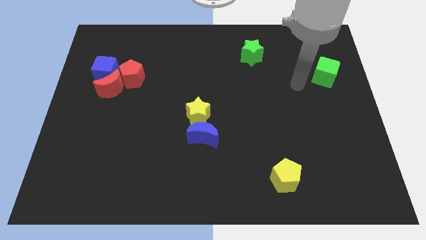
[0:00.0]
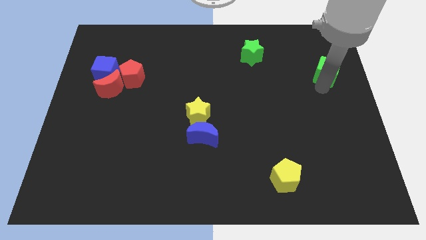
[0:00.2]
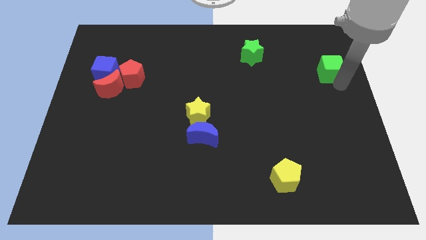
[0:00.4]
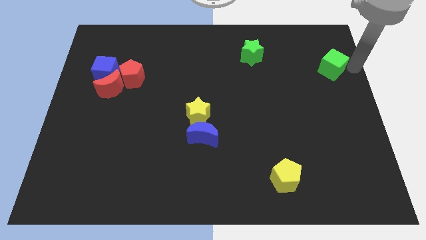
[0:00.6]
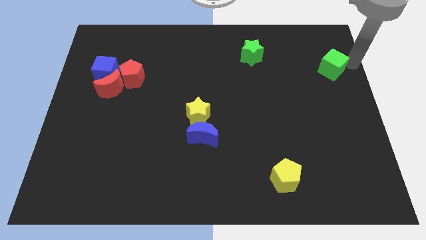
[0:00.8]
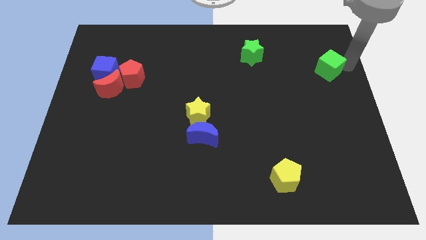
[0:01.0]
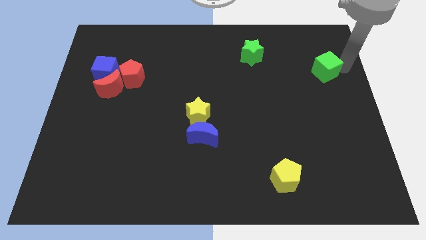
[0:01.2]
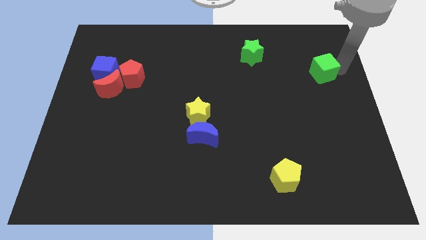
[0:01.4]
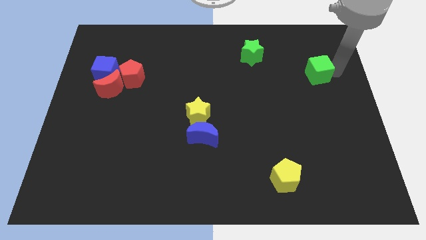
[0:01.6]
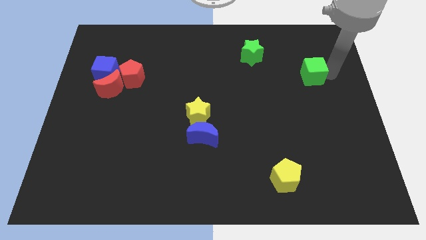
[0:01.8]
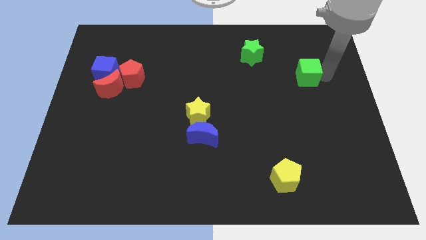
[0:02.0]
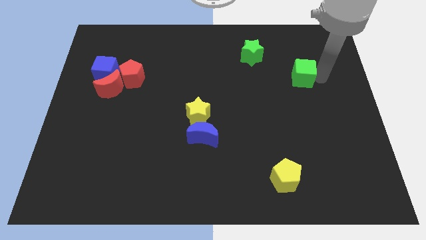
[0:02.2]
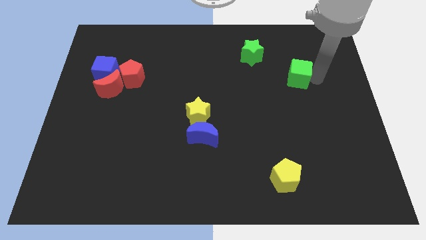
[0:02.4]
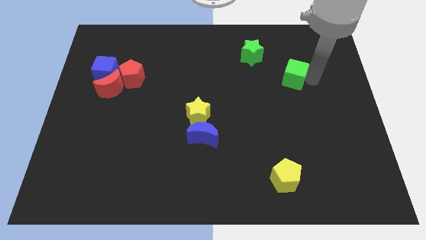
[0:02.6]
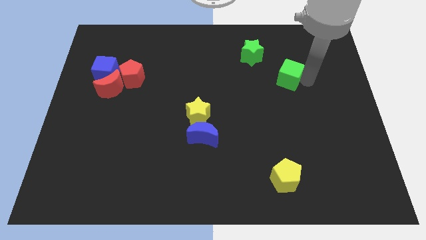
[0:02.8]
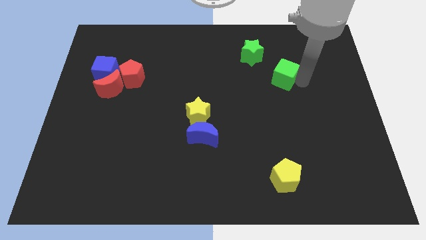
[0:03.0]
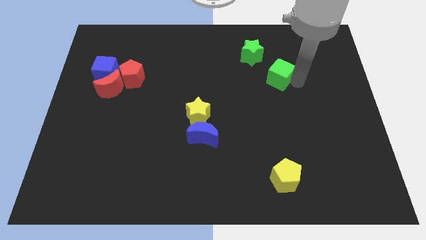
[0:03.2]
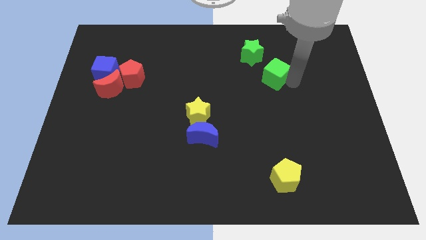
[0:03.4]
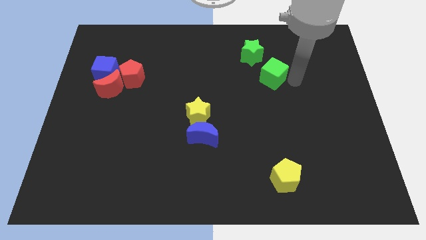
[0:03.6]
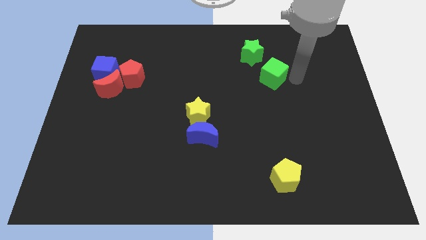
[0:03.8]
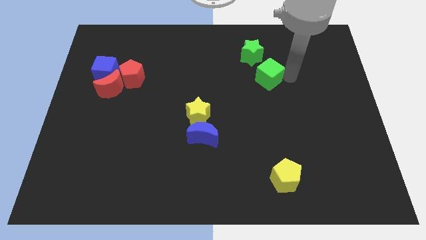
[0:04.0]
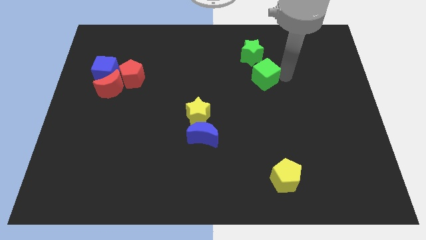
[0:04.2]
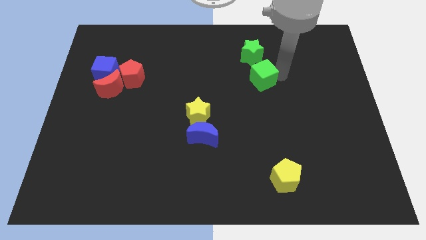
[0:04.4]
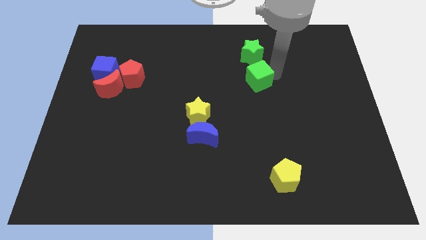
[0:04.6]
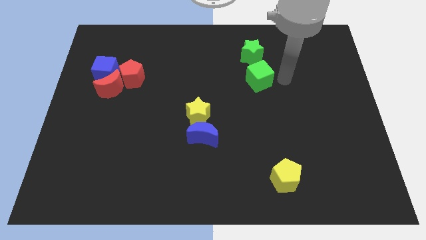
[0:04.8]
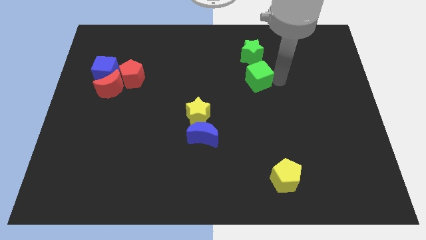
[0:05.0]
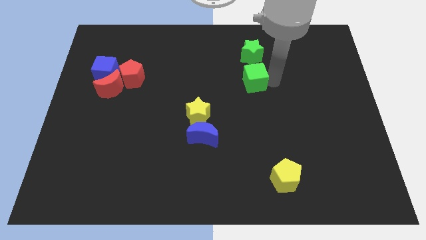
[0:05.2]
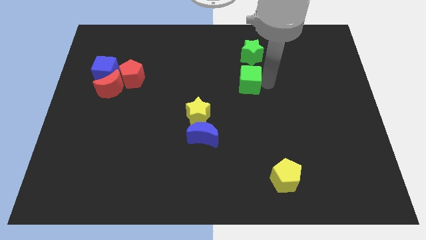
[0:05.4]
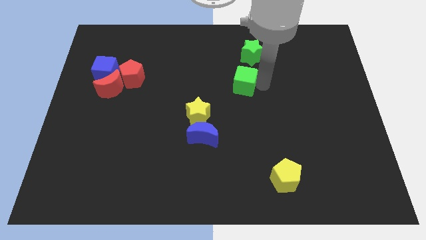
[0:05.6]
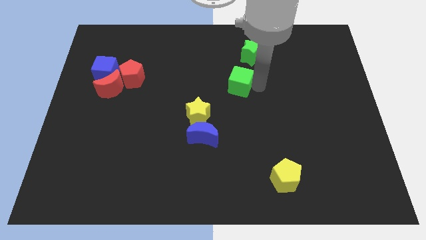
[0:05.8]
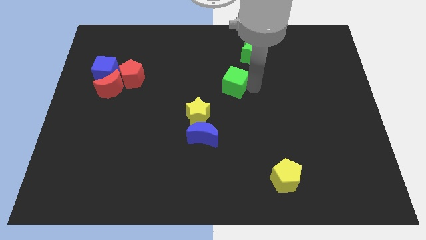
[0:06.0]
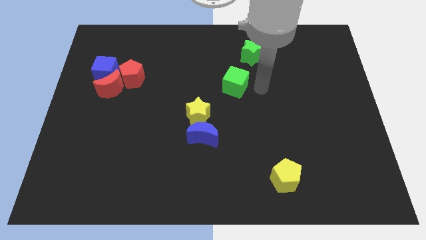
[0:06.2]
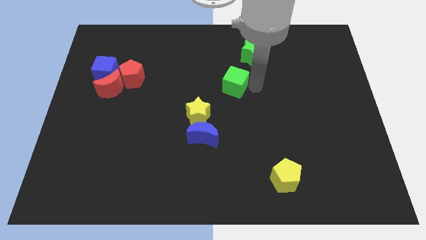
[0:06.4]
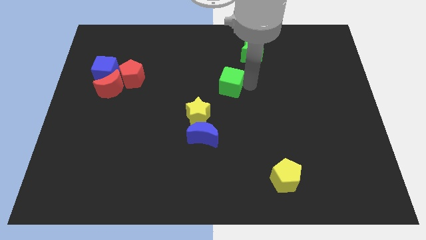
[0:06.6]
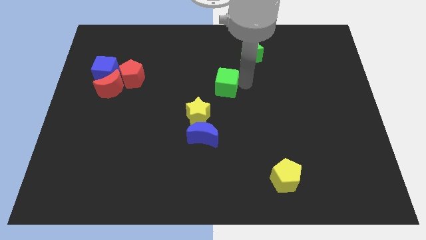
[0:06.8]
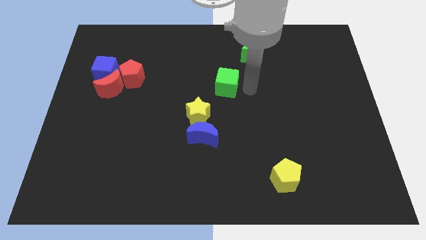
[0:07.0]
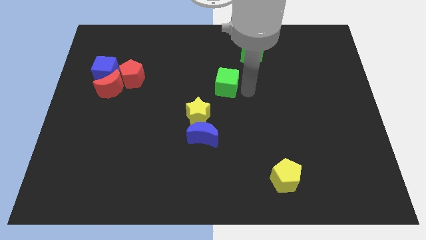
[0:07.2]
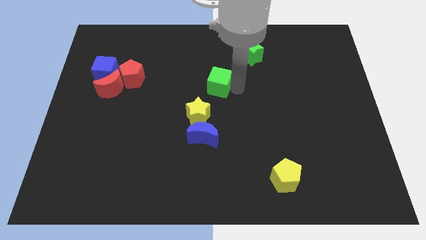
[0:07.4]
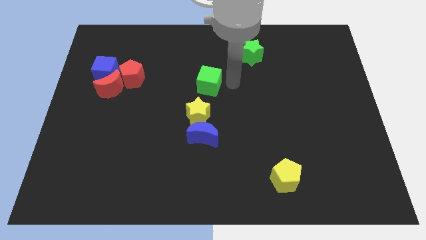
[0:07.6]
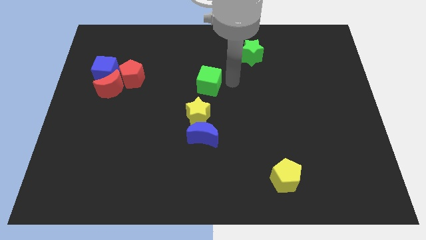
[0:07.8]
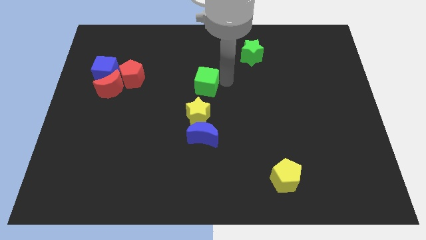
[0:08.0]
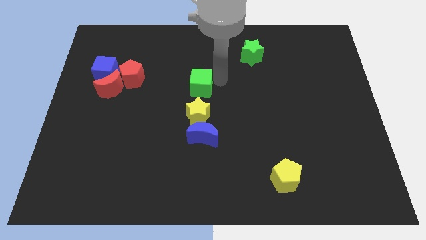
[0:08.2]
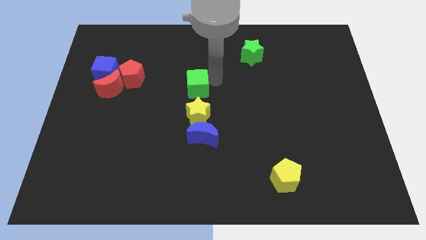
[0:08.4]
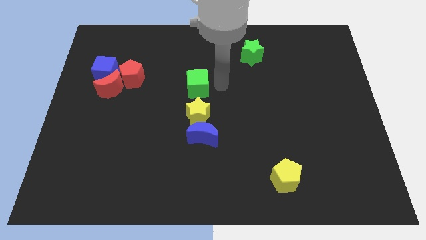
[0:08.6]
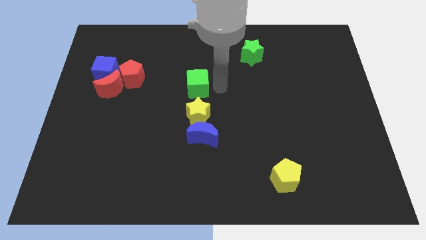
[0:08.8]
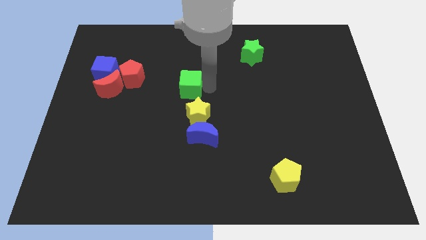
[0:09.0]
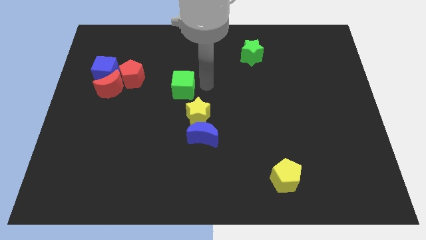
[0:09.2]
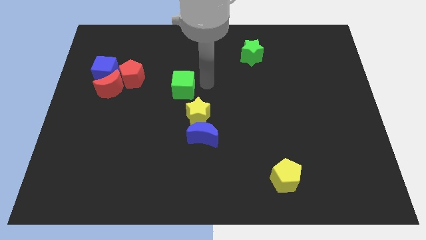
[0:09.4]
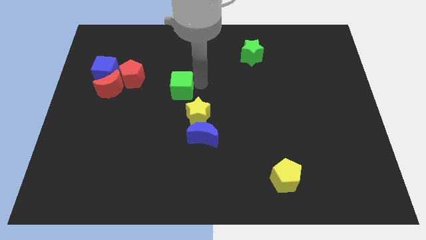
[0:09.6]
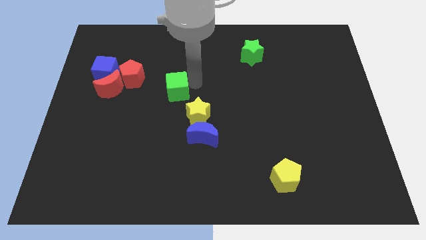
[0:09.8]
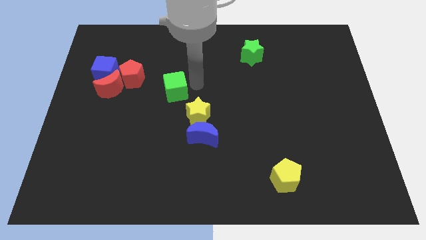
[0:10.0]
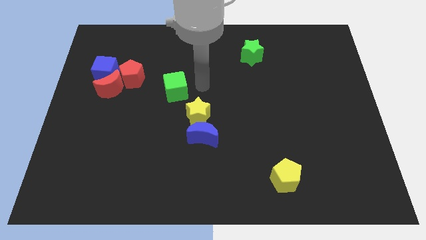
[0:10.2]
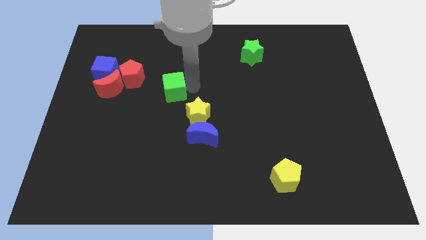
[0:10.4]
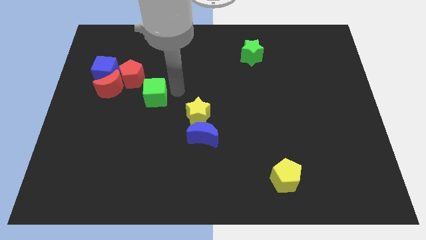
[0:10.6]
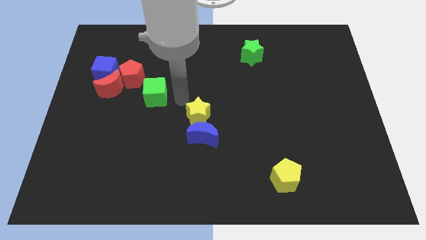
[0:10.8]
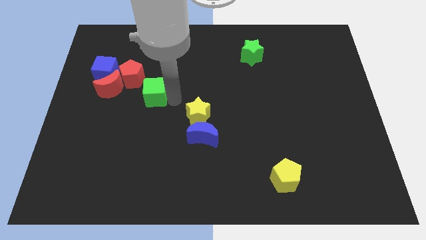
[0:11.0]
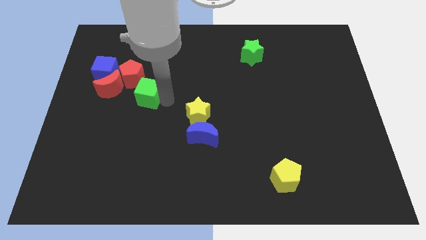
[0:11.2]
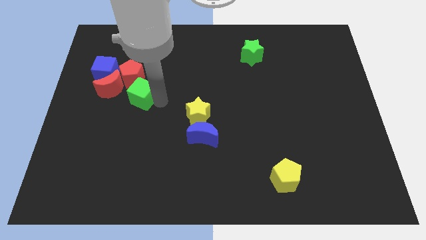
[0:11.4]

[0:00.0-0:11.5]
push the green cube to the bottom right side of the blue cube

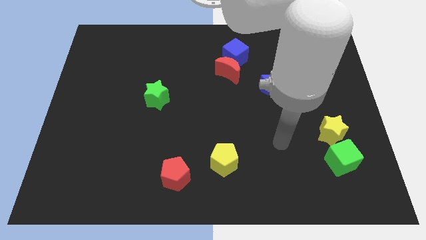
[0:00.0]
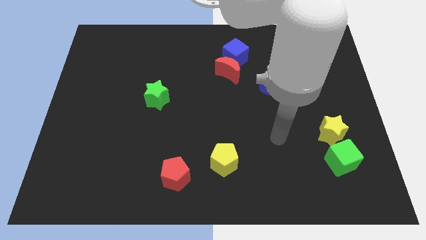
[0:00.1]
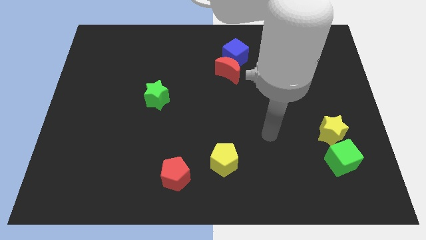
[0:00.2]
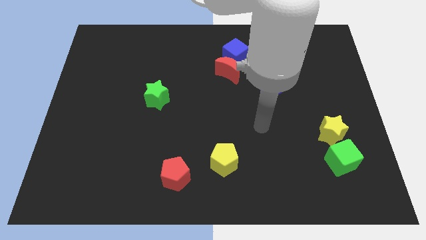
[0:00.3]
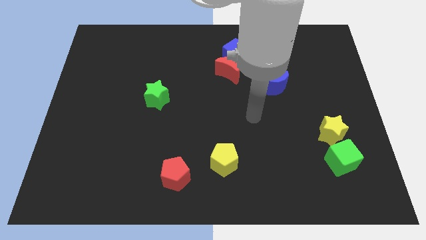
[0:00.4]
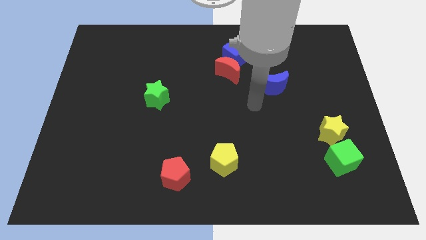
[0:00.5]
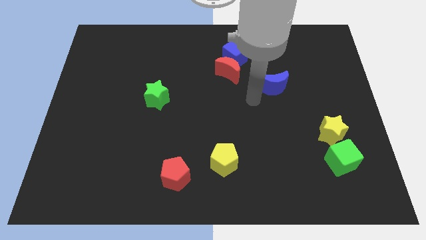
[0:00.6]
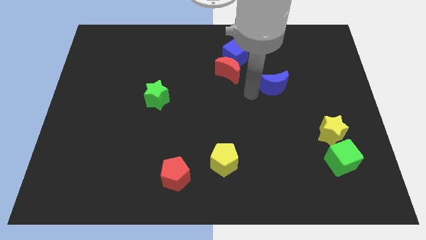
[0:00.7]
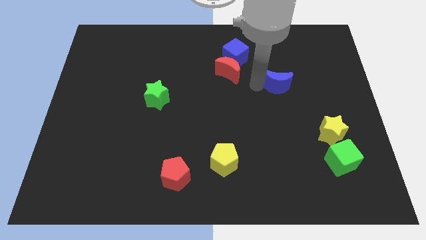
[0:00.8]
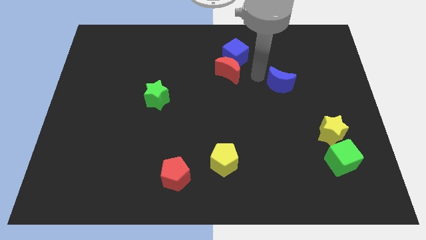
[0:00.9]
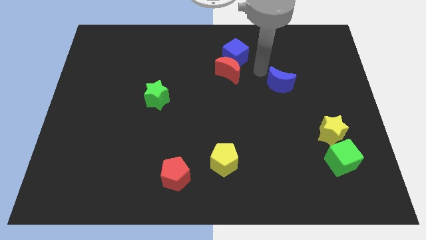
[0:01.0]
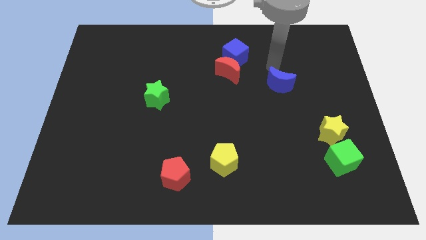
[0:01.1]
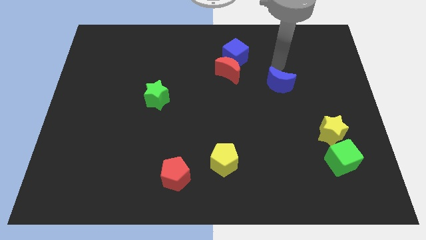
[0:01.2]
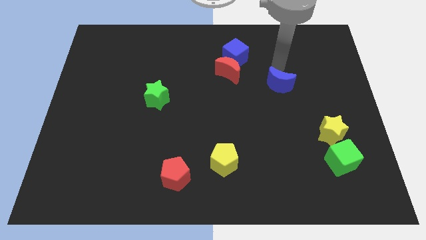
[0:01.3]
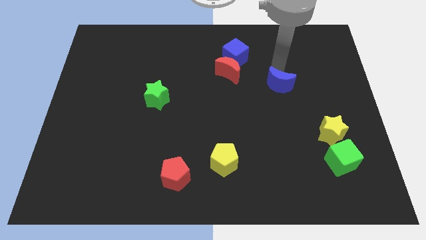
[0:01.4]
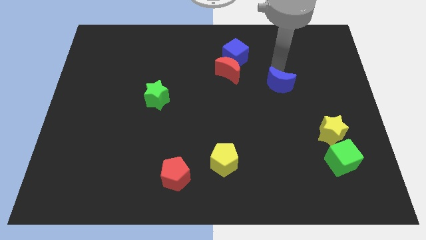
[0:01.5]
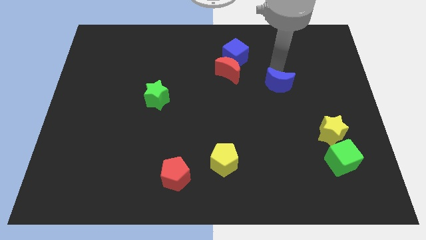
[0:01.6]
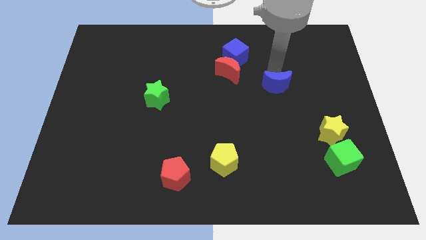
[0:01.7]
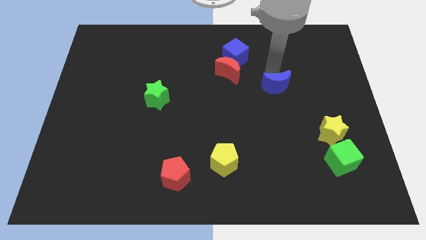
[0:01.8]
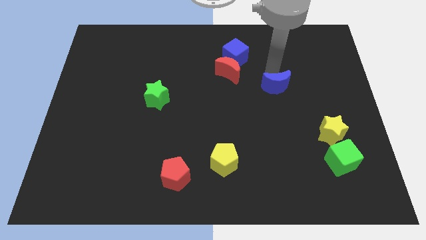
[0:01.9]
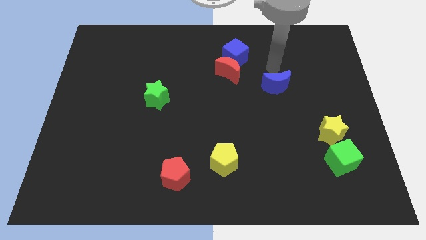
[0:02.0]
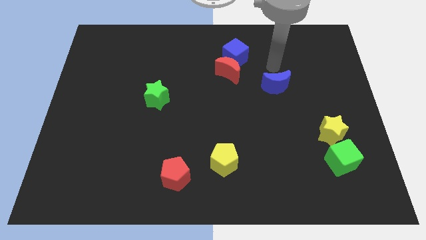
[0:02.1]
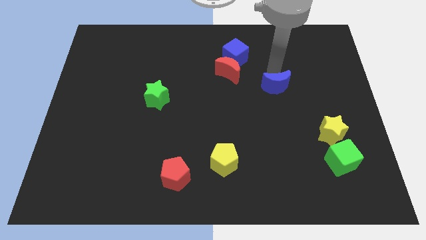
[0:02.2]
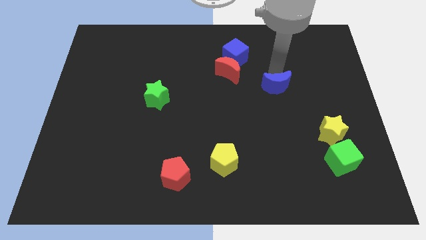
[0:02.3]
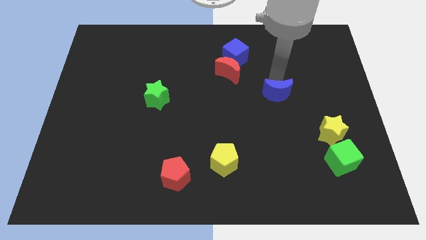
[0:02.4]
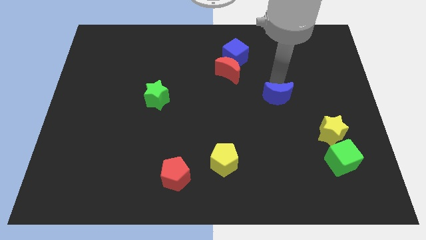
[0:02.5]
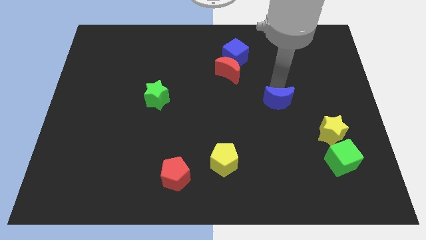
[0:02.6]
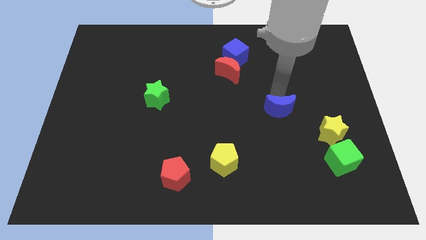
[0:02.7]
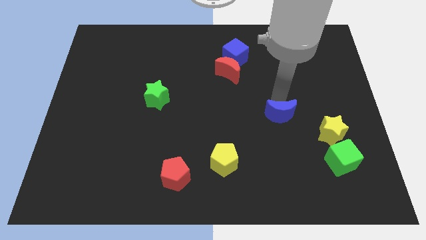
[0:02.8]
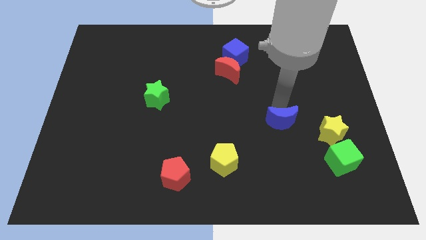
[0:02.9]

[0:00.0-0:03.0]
push the blue moon to the left of the yellow star
